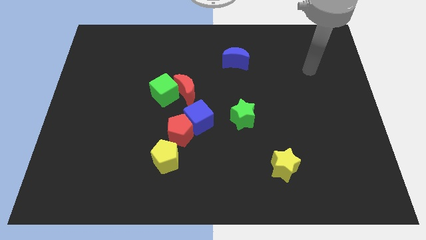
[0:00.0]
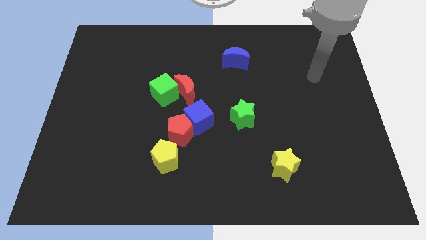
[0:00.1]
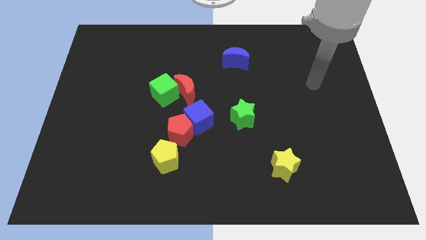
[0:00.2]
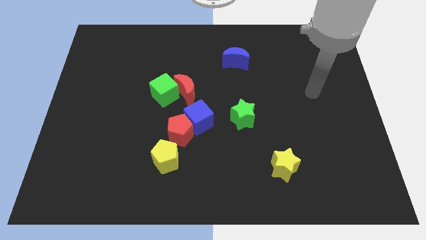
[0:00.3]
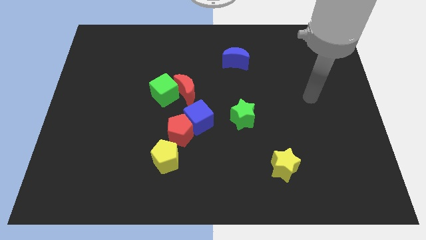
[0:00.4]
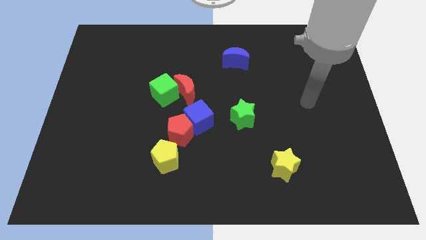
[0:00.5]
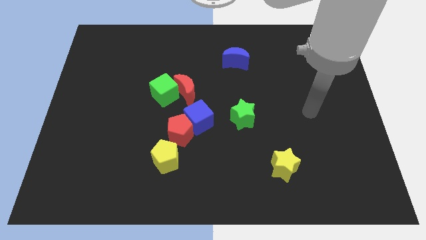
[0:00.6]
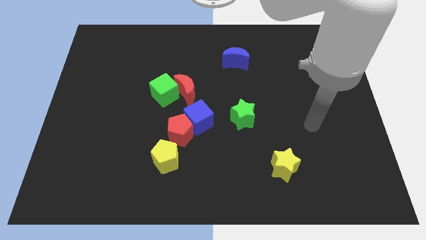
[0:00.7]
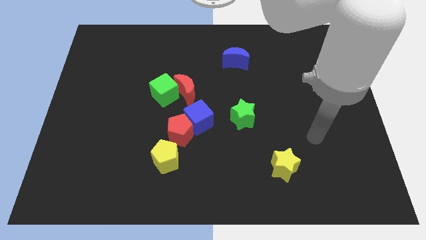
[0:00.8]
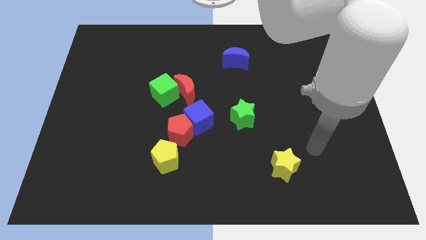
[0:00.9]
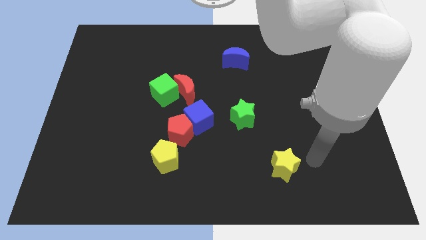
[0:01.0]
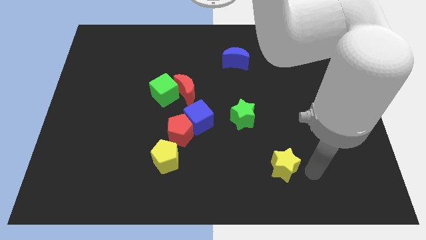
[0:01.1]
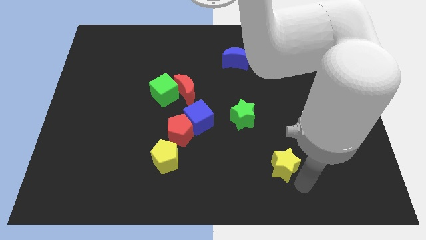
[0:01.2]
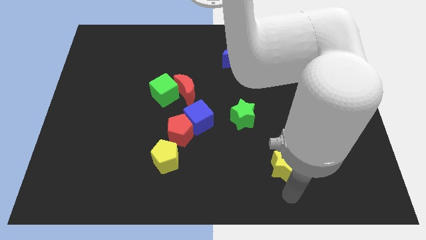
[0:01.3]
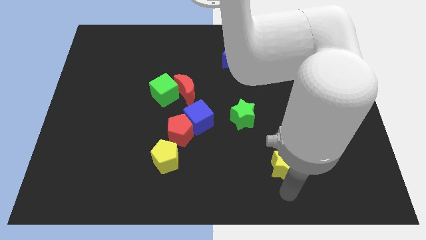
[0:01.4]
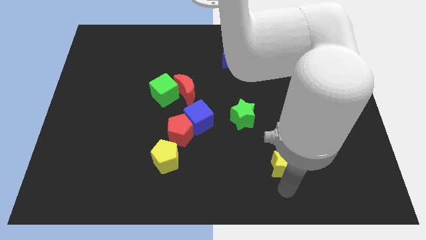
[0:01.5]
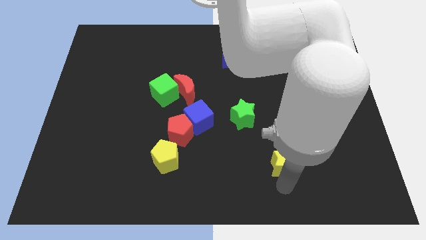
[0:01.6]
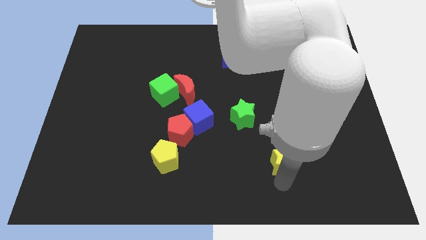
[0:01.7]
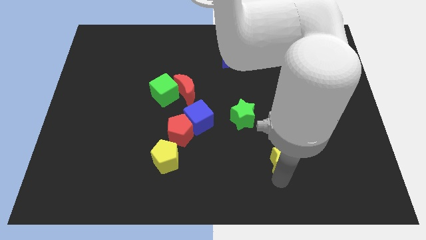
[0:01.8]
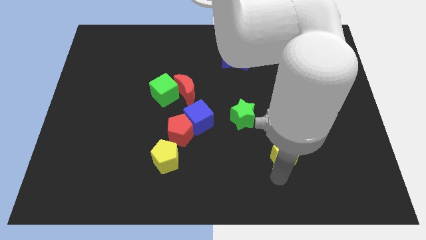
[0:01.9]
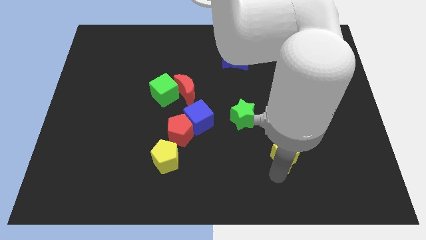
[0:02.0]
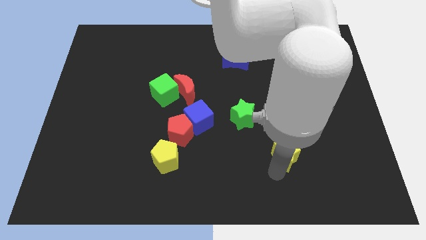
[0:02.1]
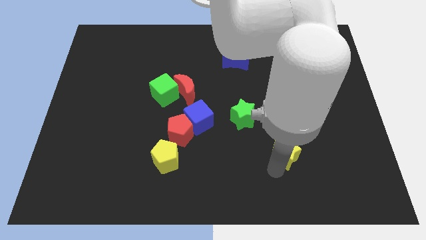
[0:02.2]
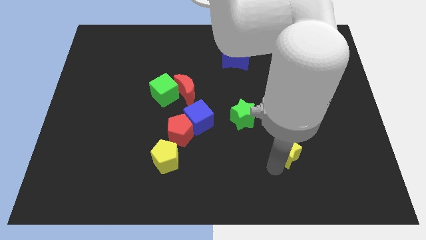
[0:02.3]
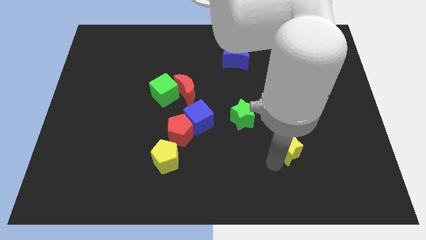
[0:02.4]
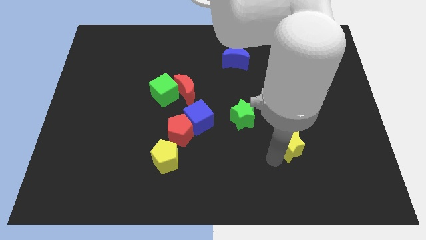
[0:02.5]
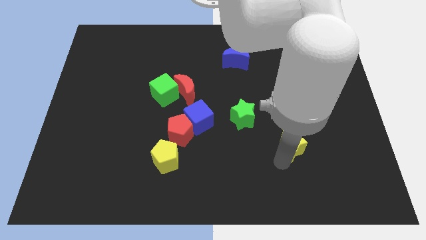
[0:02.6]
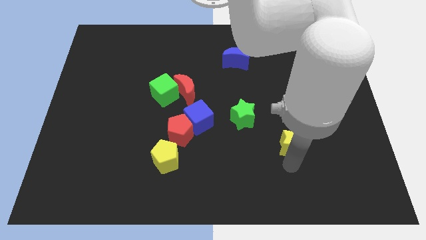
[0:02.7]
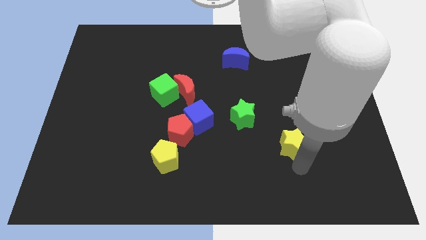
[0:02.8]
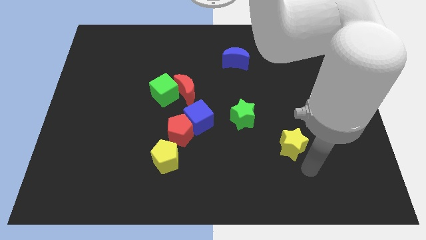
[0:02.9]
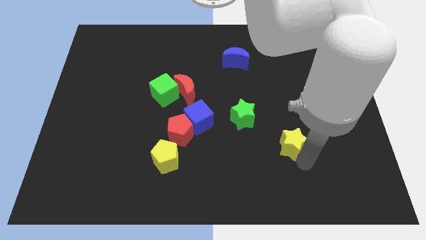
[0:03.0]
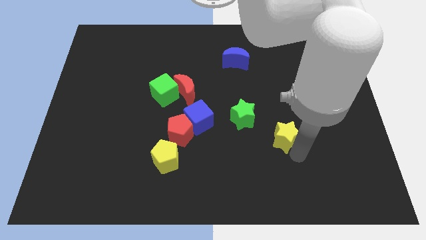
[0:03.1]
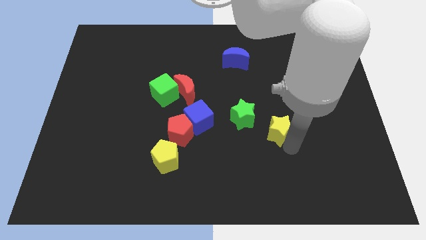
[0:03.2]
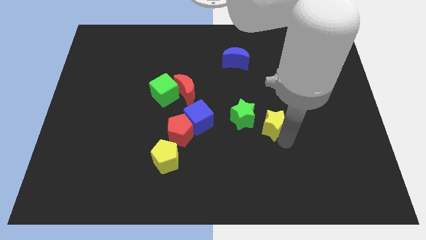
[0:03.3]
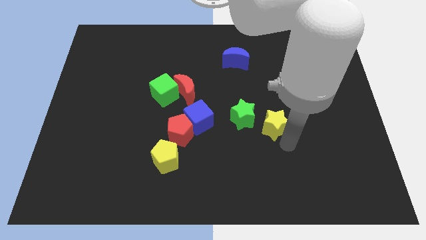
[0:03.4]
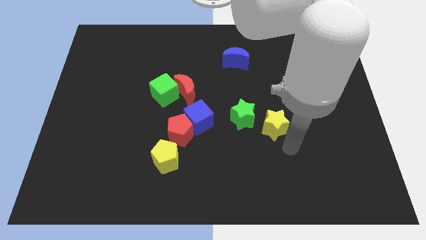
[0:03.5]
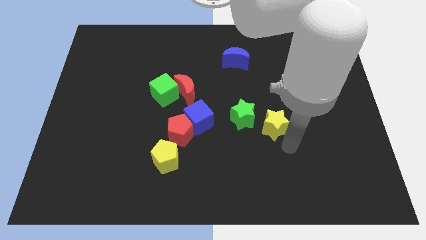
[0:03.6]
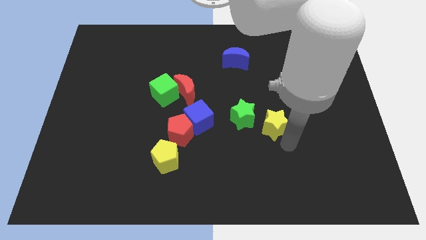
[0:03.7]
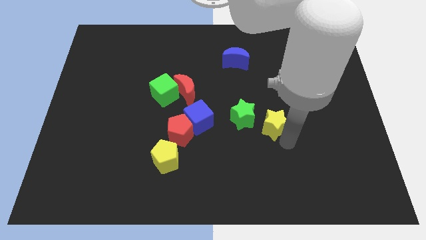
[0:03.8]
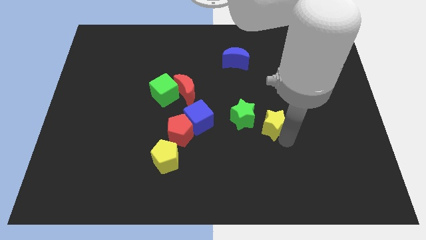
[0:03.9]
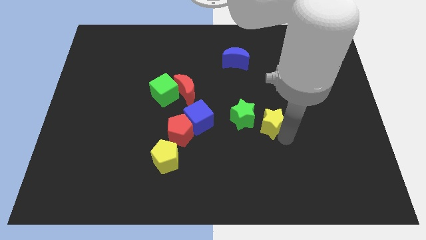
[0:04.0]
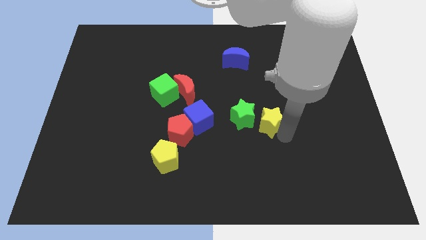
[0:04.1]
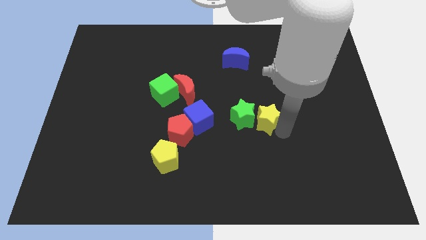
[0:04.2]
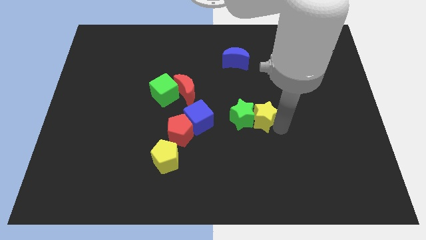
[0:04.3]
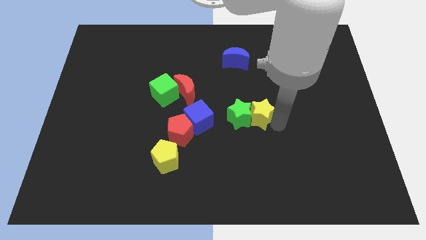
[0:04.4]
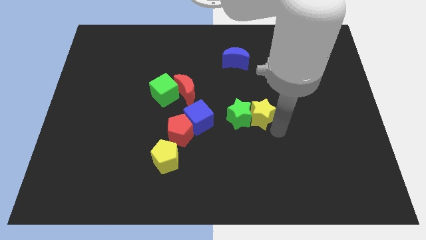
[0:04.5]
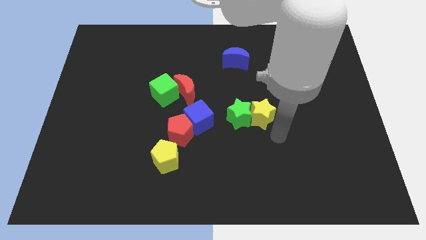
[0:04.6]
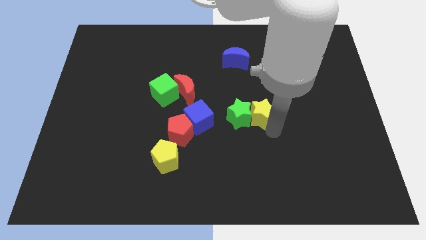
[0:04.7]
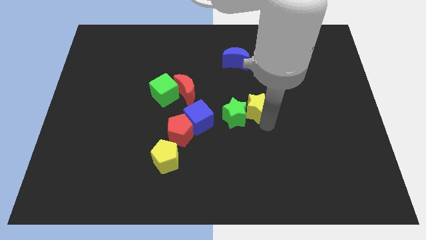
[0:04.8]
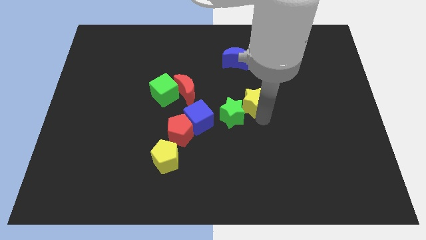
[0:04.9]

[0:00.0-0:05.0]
slide the yellow star below the blue moon
